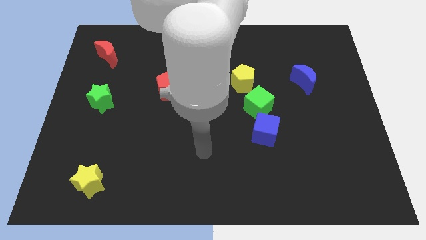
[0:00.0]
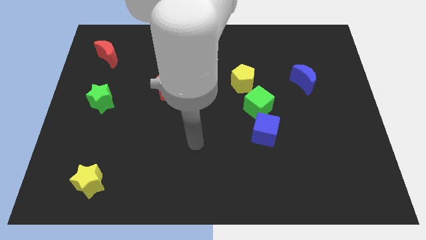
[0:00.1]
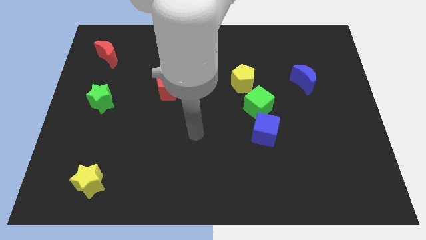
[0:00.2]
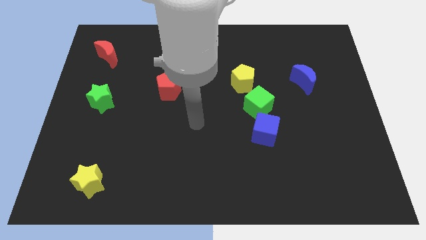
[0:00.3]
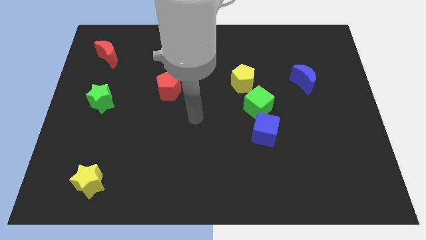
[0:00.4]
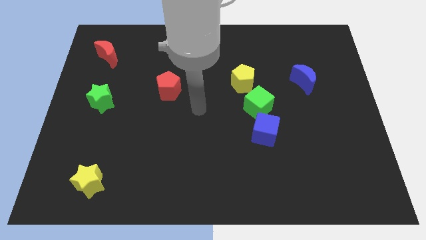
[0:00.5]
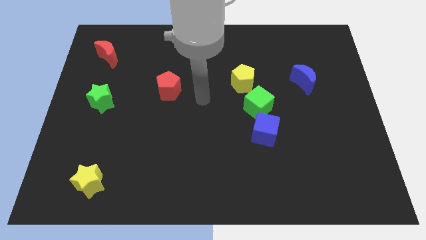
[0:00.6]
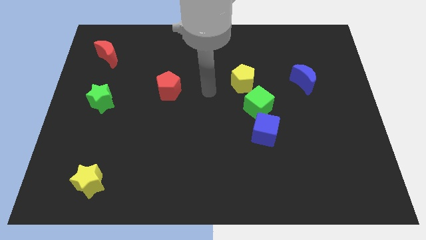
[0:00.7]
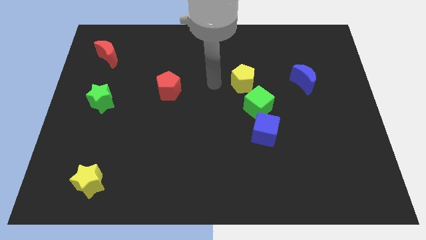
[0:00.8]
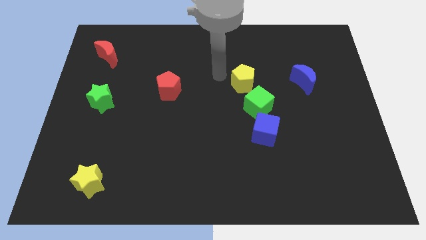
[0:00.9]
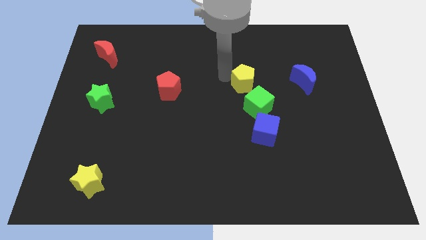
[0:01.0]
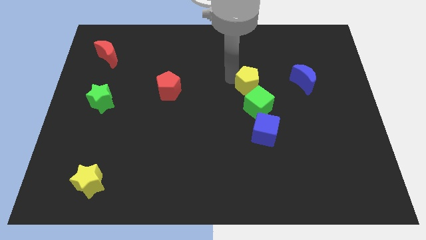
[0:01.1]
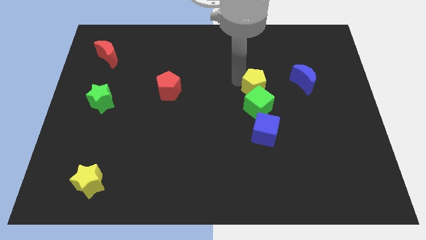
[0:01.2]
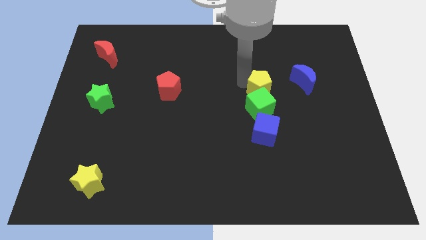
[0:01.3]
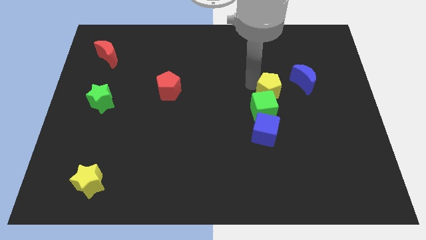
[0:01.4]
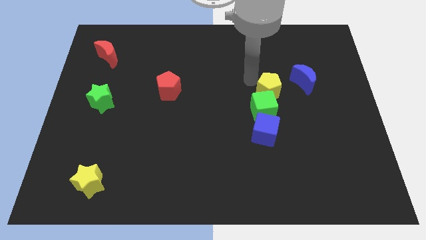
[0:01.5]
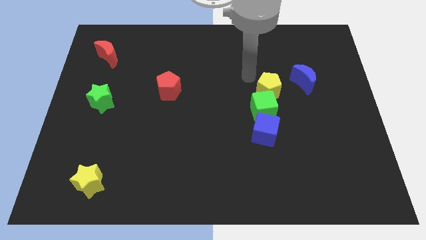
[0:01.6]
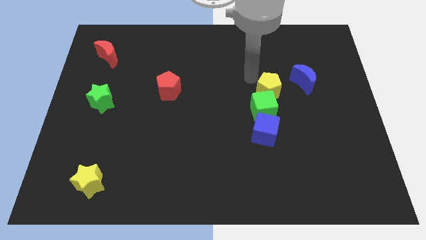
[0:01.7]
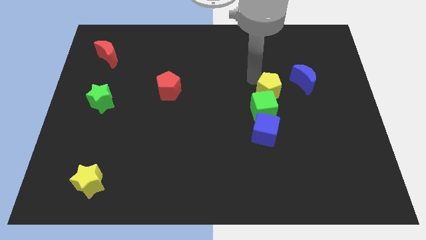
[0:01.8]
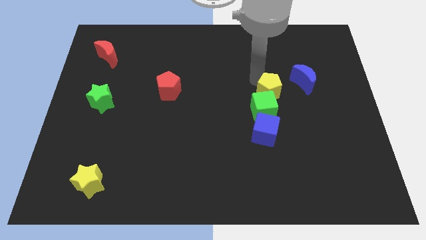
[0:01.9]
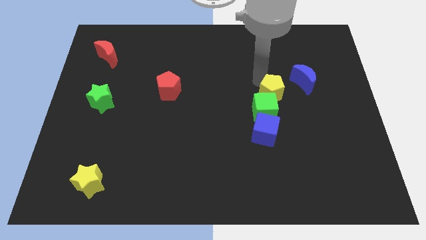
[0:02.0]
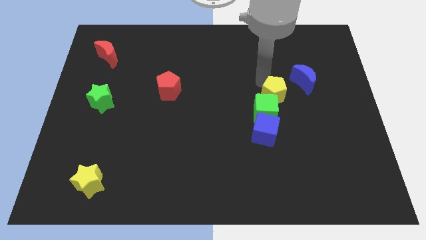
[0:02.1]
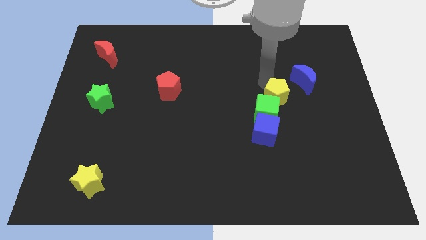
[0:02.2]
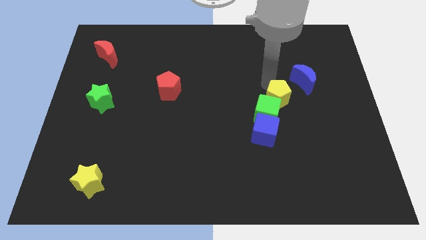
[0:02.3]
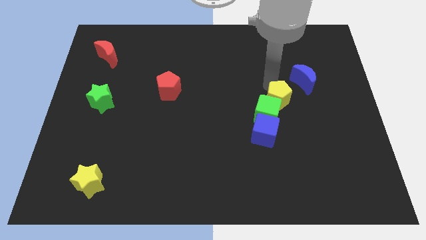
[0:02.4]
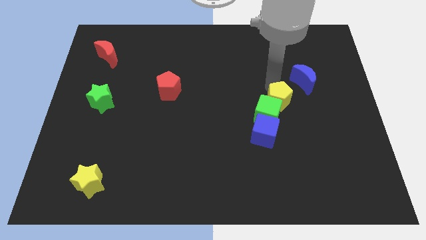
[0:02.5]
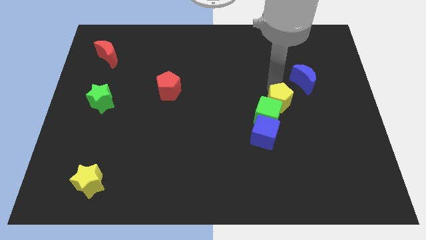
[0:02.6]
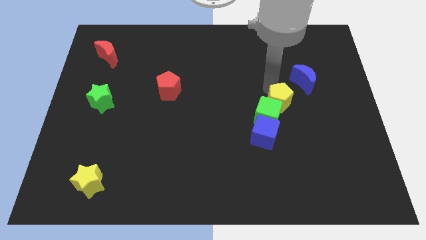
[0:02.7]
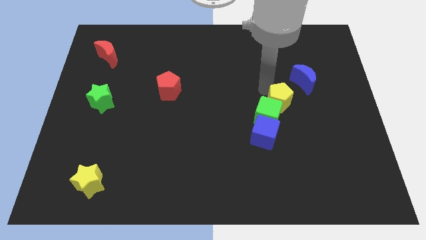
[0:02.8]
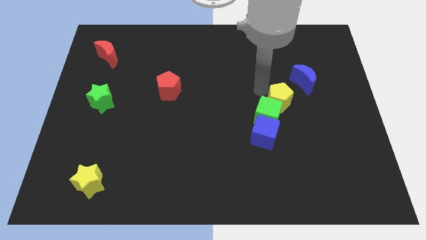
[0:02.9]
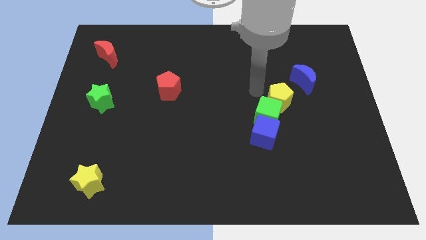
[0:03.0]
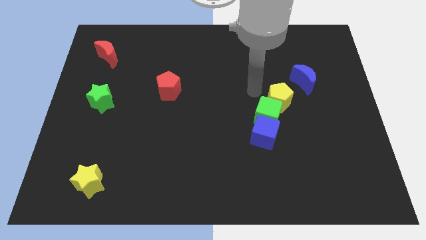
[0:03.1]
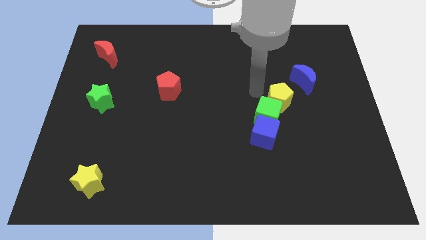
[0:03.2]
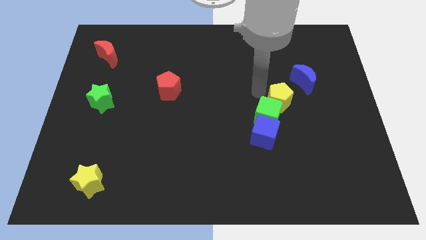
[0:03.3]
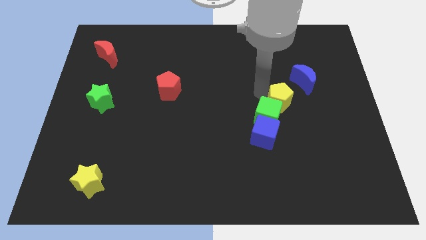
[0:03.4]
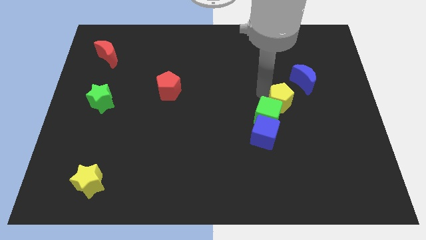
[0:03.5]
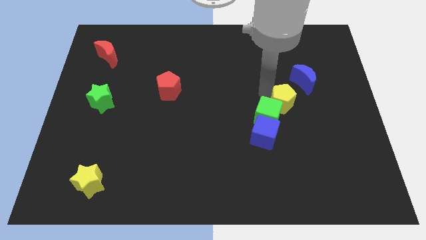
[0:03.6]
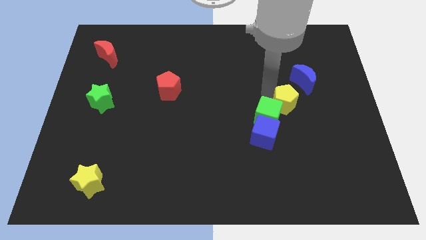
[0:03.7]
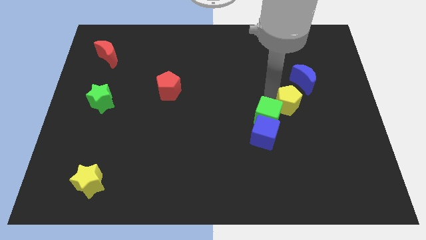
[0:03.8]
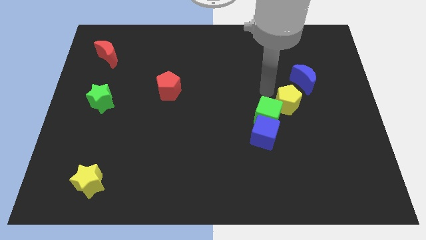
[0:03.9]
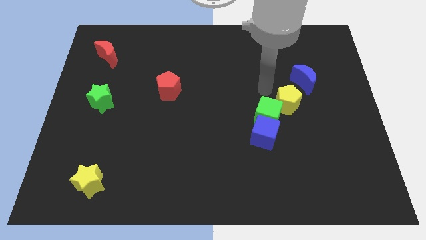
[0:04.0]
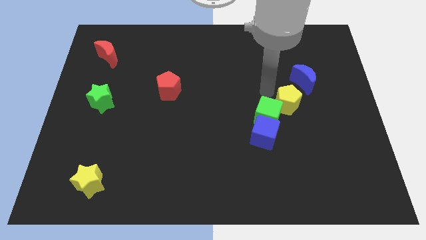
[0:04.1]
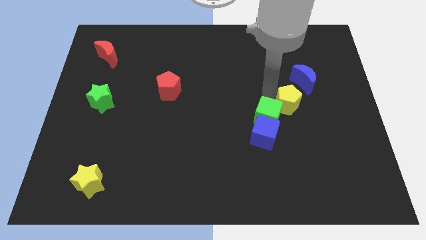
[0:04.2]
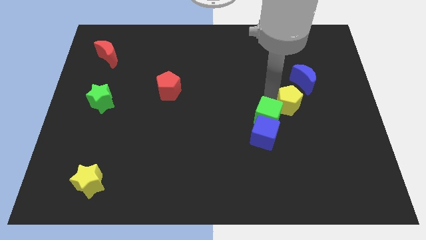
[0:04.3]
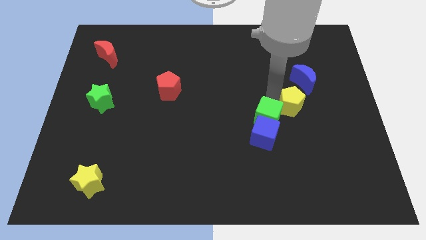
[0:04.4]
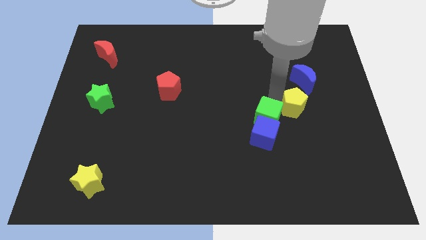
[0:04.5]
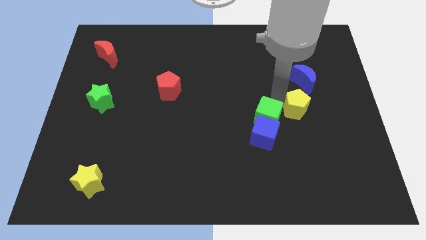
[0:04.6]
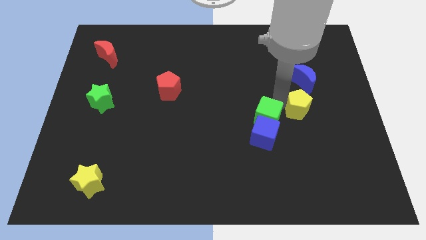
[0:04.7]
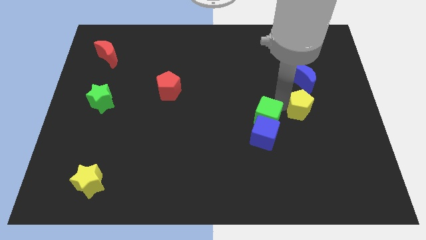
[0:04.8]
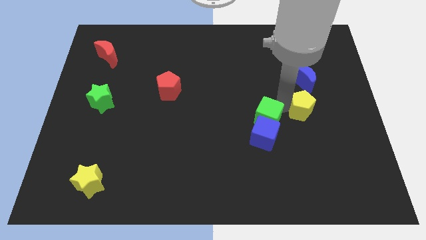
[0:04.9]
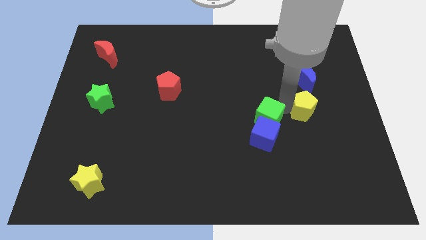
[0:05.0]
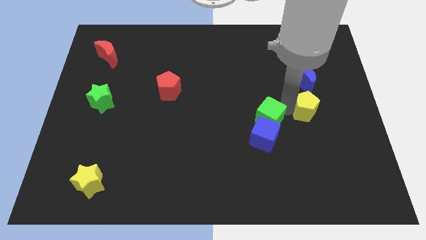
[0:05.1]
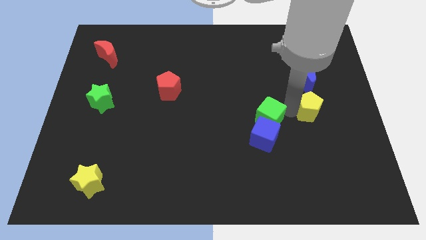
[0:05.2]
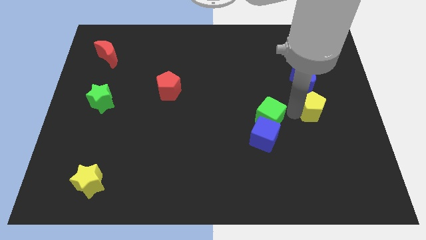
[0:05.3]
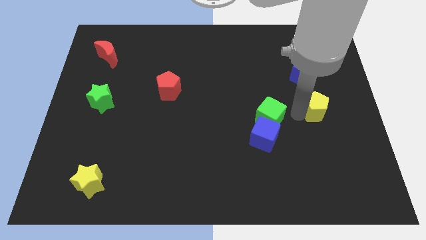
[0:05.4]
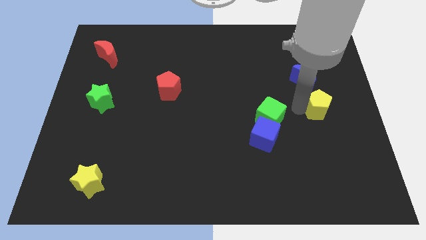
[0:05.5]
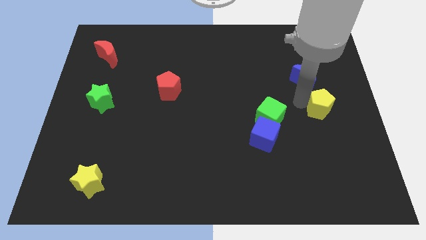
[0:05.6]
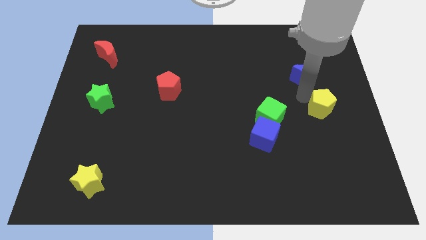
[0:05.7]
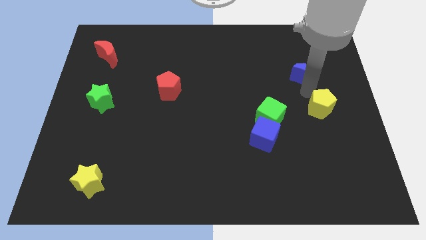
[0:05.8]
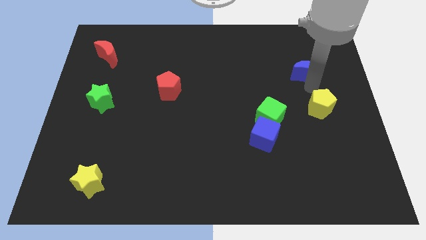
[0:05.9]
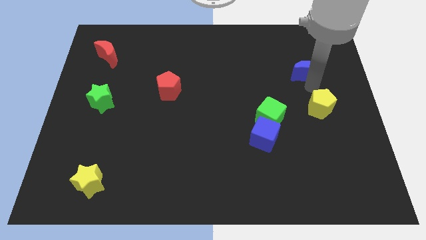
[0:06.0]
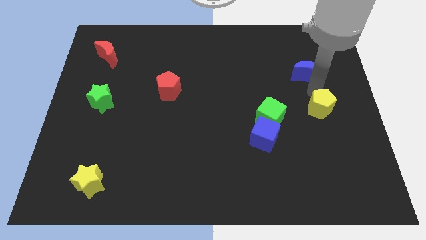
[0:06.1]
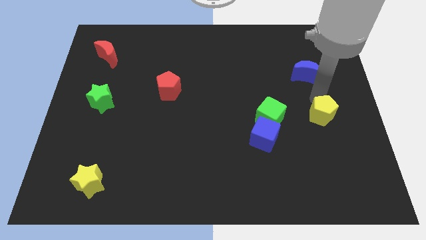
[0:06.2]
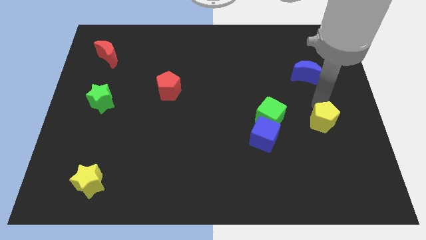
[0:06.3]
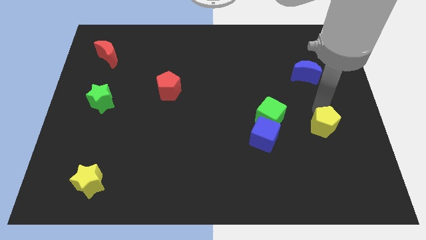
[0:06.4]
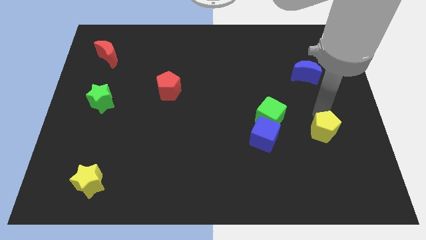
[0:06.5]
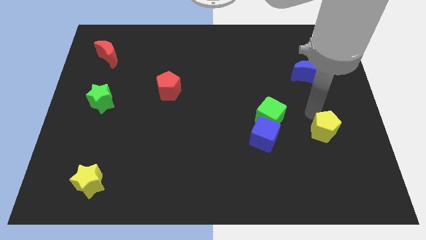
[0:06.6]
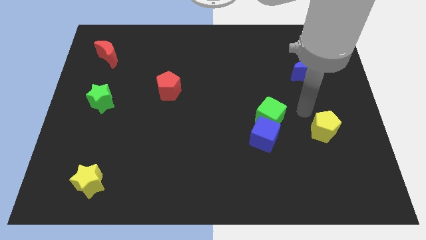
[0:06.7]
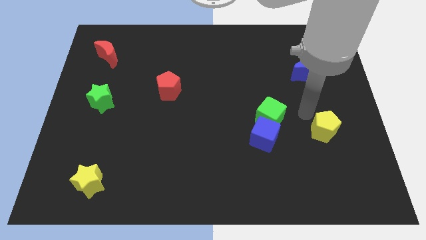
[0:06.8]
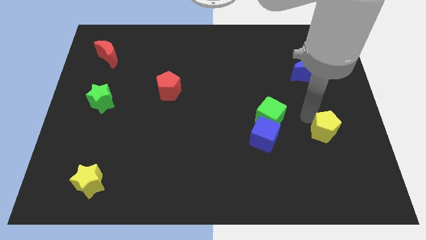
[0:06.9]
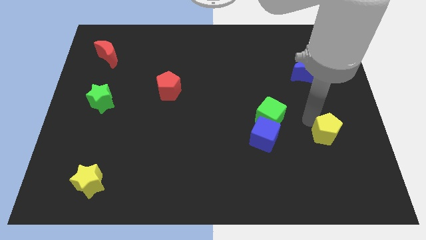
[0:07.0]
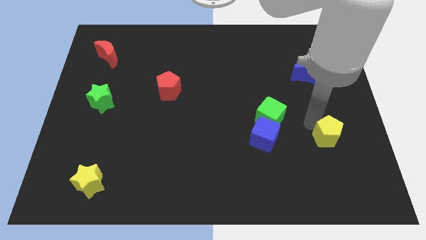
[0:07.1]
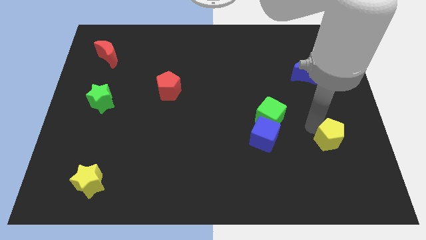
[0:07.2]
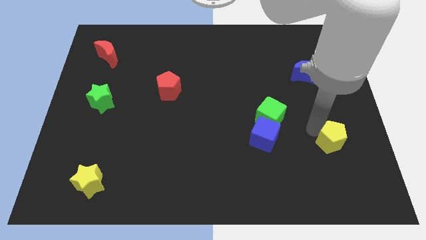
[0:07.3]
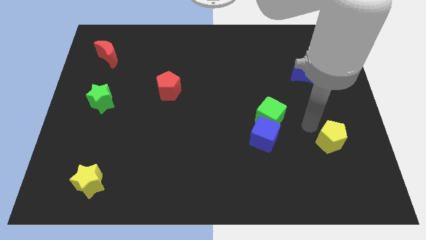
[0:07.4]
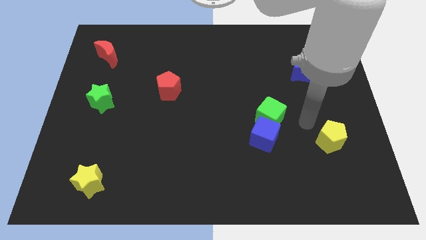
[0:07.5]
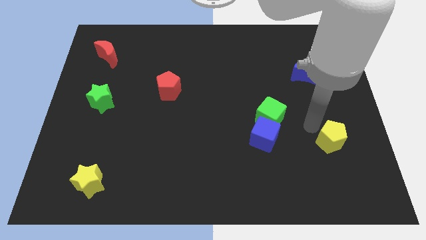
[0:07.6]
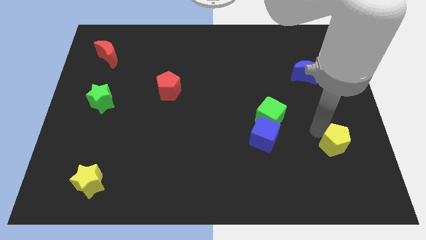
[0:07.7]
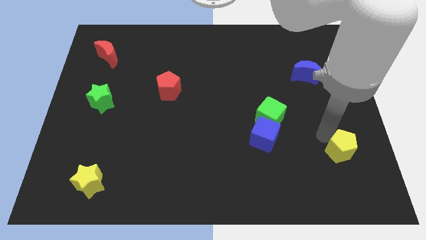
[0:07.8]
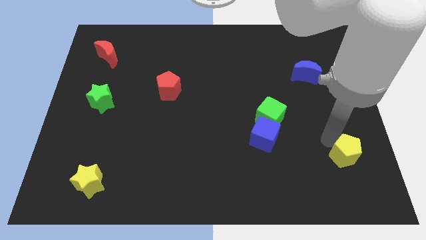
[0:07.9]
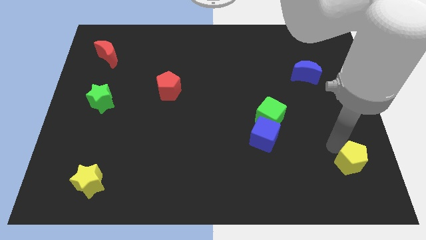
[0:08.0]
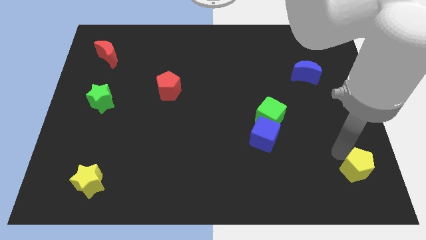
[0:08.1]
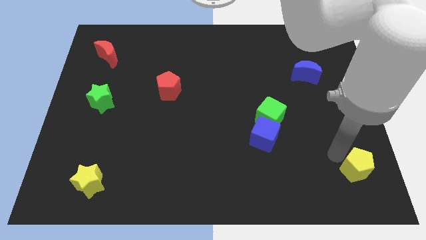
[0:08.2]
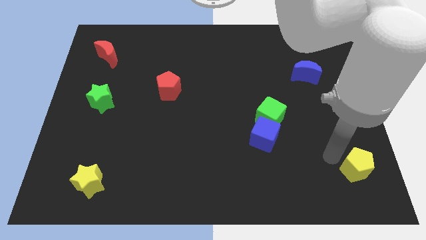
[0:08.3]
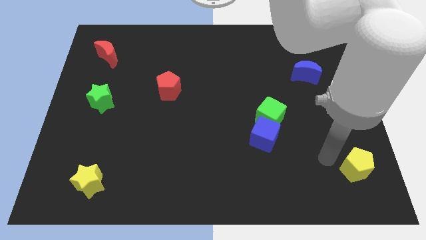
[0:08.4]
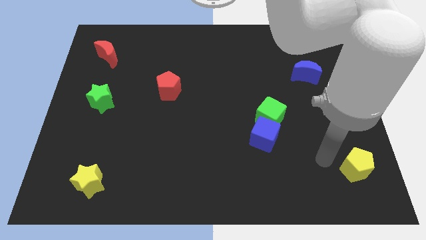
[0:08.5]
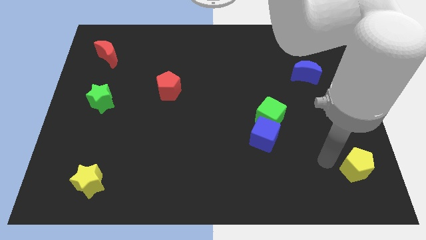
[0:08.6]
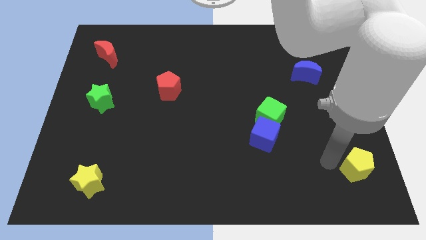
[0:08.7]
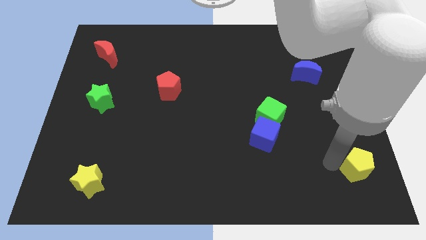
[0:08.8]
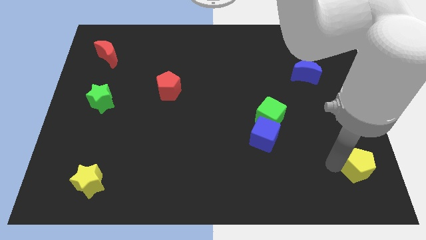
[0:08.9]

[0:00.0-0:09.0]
move the yellow pentagon to the bottom right of the board
